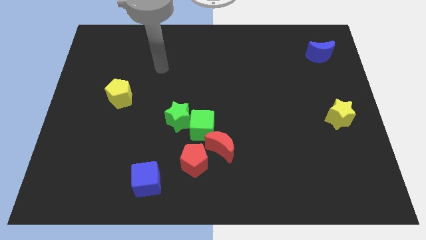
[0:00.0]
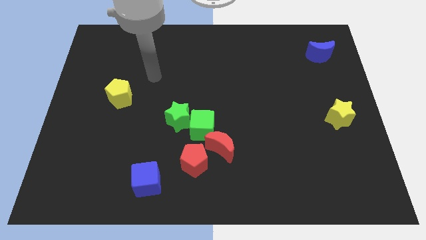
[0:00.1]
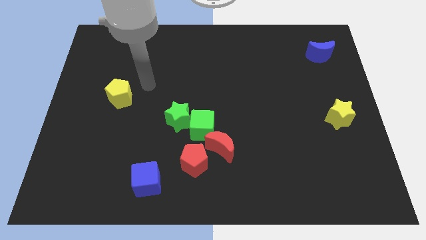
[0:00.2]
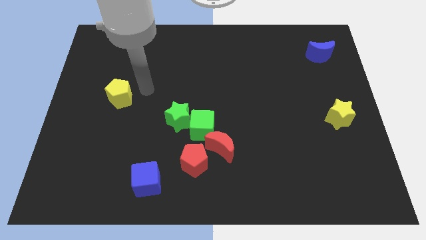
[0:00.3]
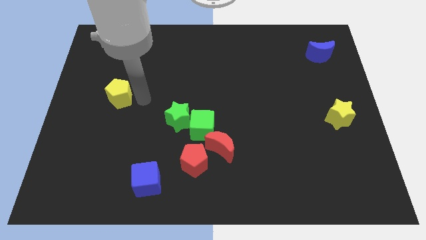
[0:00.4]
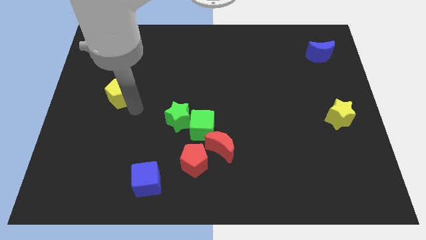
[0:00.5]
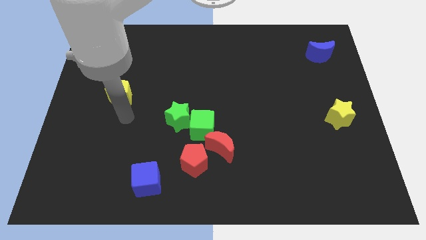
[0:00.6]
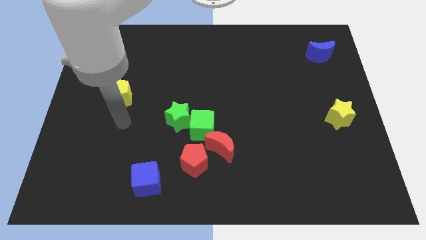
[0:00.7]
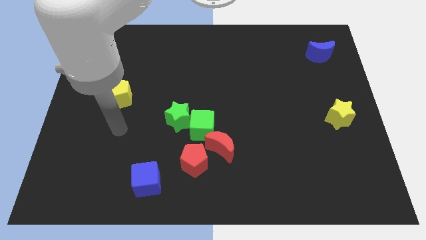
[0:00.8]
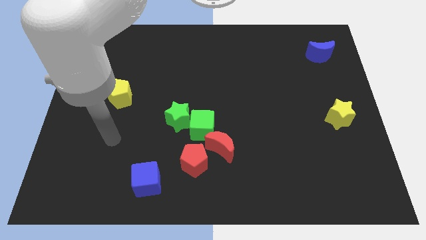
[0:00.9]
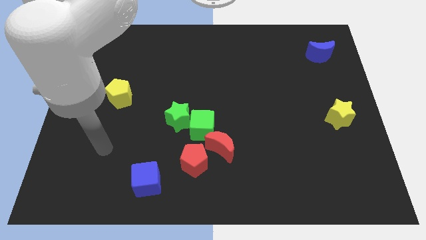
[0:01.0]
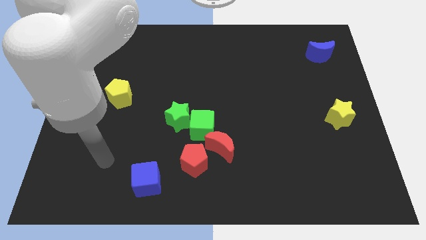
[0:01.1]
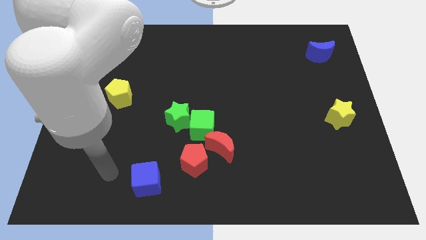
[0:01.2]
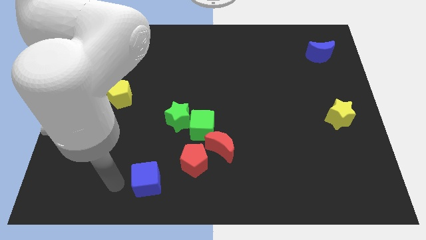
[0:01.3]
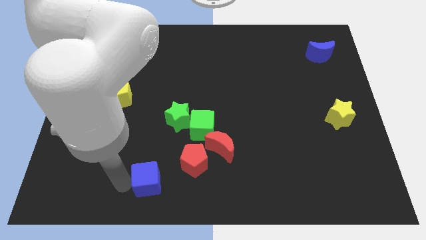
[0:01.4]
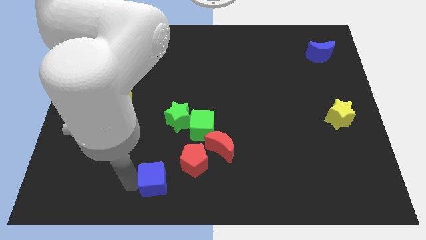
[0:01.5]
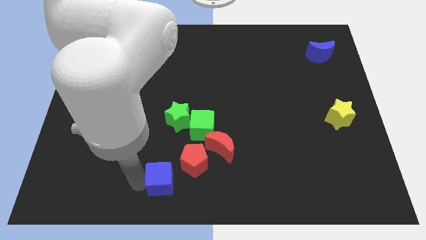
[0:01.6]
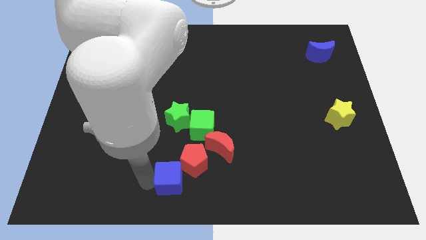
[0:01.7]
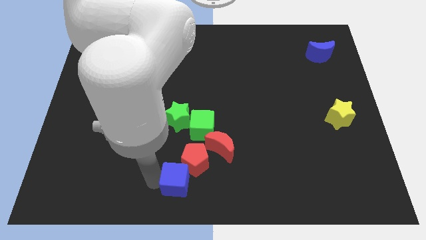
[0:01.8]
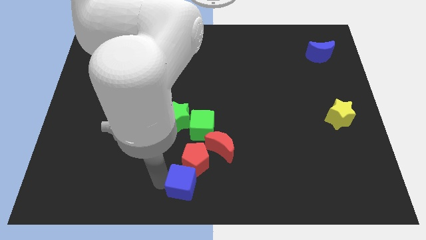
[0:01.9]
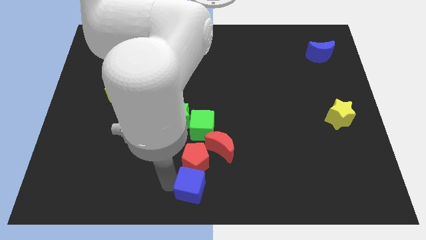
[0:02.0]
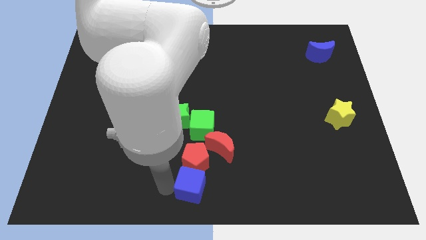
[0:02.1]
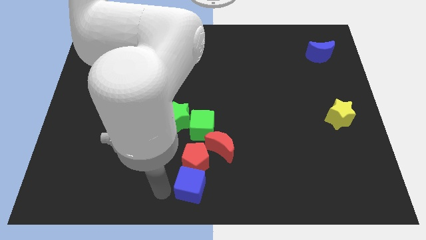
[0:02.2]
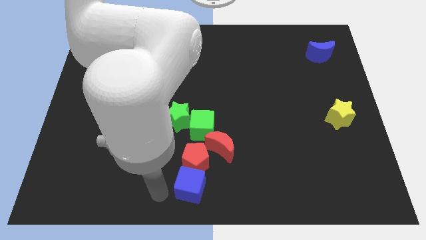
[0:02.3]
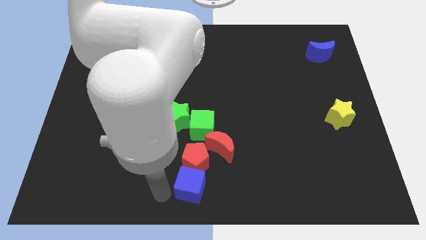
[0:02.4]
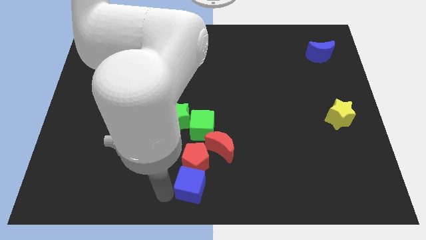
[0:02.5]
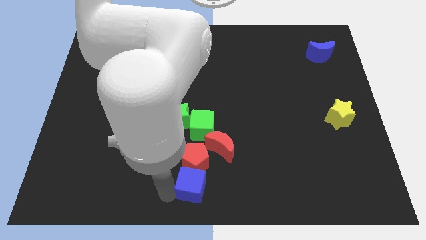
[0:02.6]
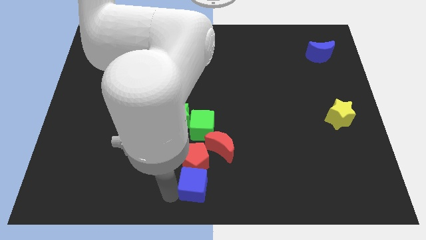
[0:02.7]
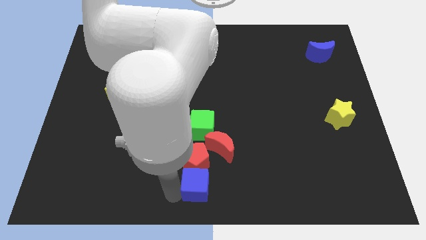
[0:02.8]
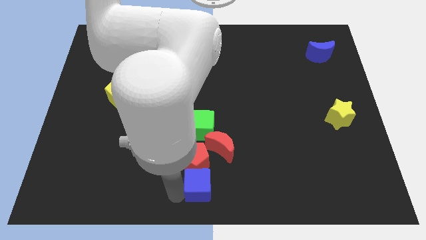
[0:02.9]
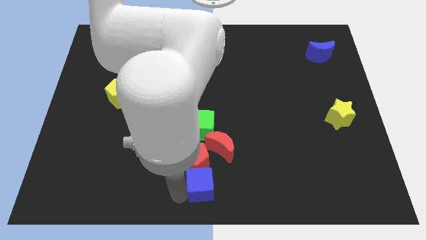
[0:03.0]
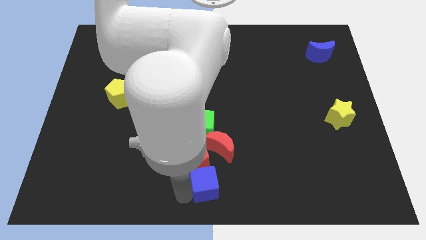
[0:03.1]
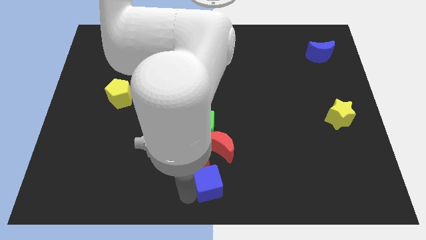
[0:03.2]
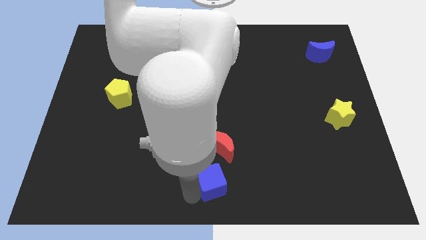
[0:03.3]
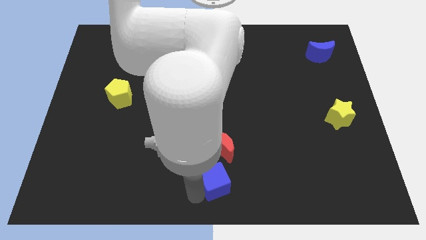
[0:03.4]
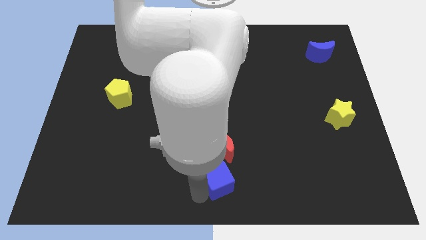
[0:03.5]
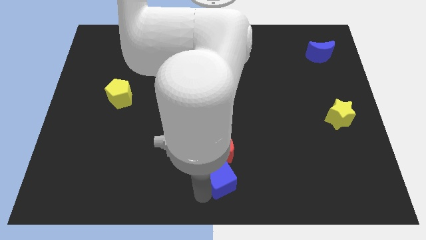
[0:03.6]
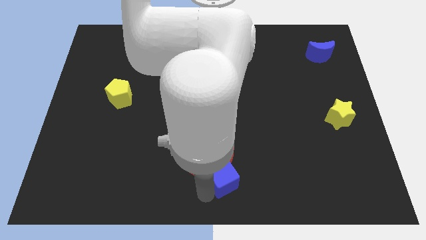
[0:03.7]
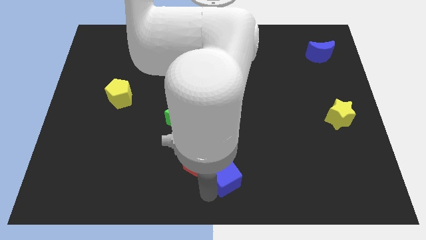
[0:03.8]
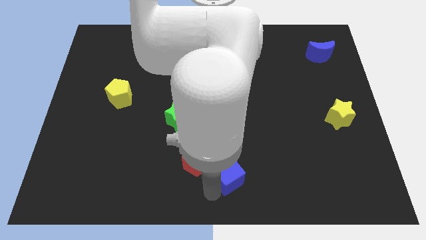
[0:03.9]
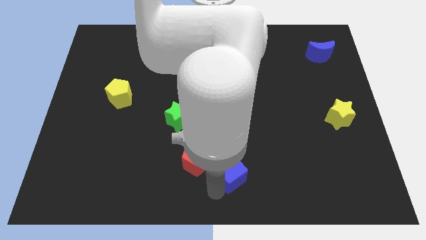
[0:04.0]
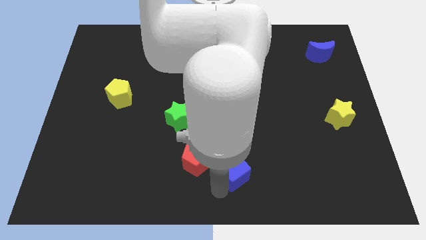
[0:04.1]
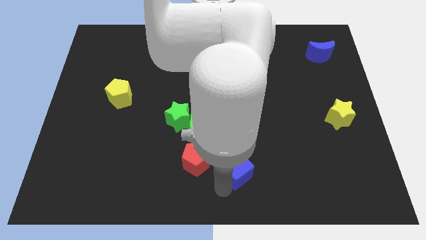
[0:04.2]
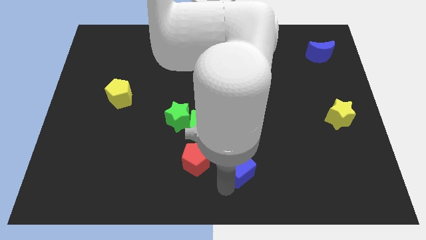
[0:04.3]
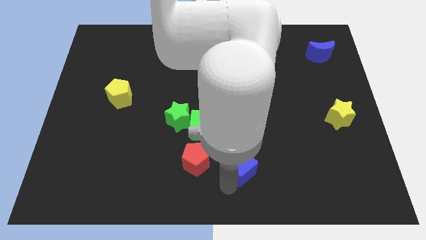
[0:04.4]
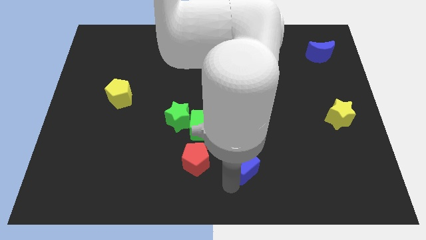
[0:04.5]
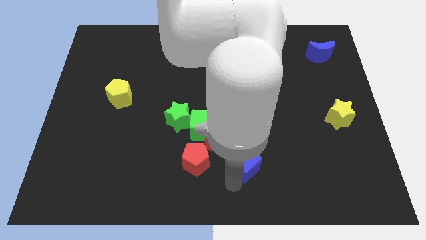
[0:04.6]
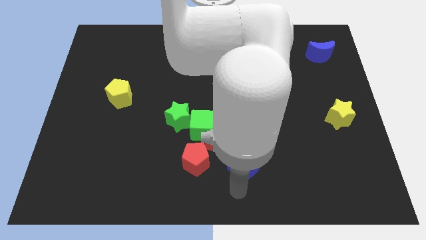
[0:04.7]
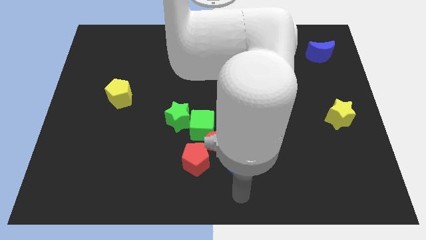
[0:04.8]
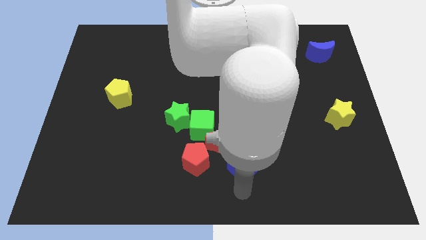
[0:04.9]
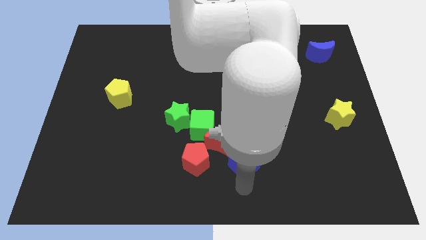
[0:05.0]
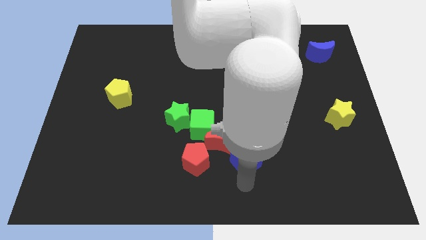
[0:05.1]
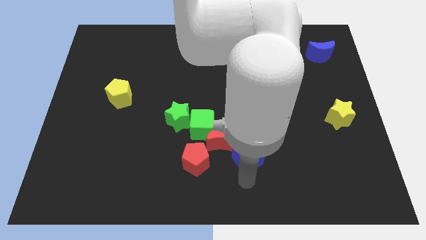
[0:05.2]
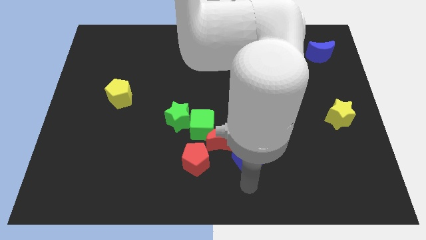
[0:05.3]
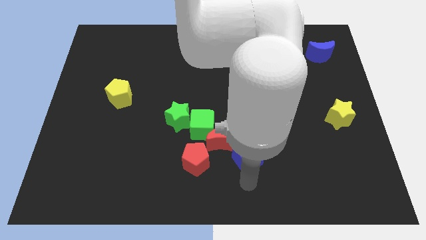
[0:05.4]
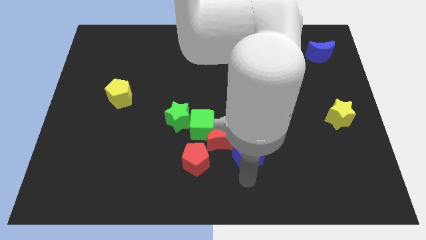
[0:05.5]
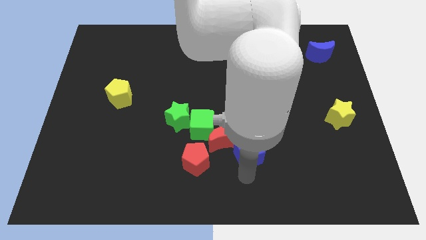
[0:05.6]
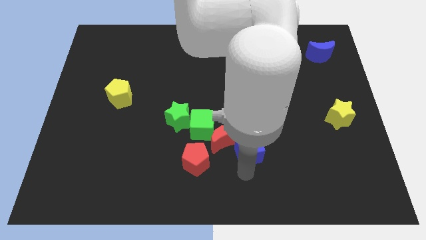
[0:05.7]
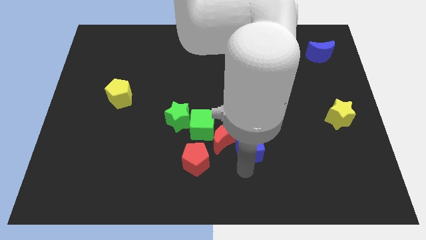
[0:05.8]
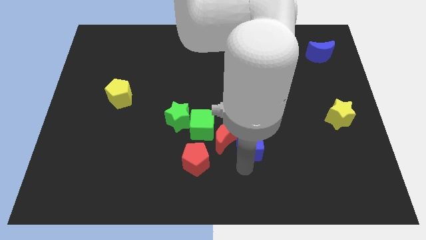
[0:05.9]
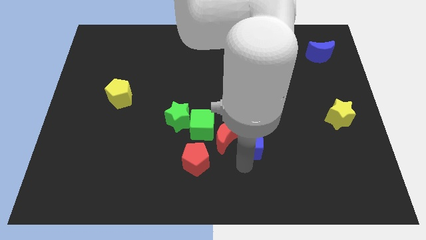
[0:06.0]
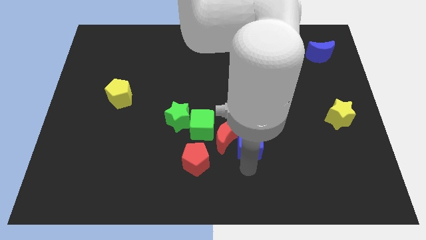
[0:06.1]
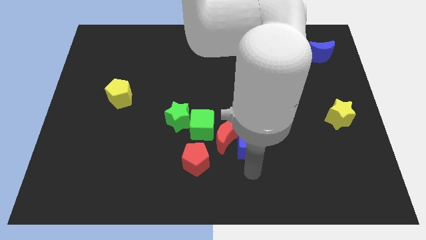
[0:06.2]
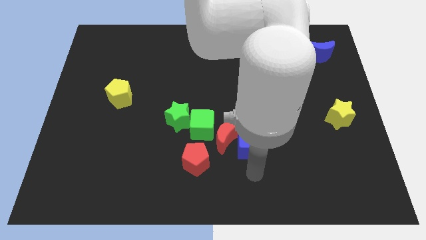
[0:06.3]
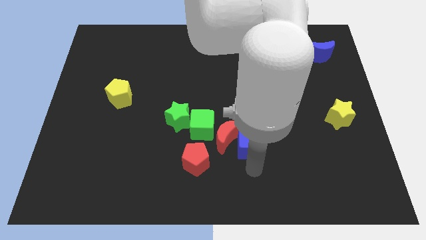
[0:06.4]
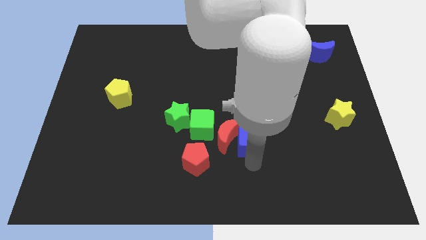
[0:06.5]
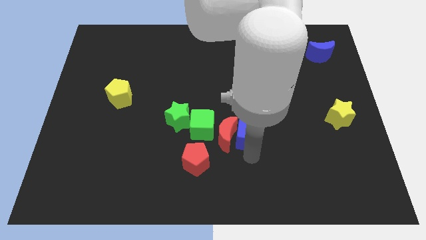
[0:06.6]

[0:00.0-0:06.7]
move the blue cube up and then to the right

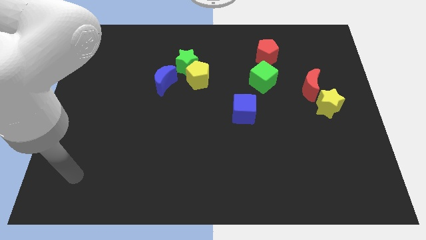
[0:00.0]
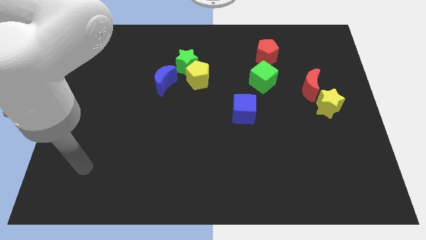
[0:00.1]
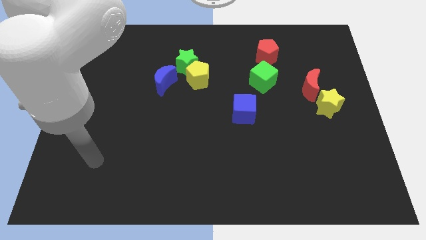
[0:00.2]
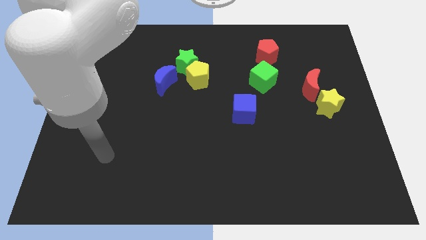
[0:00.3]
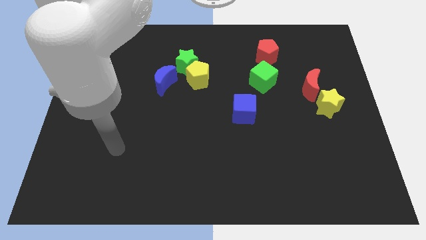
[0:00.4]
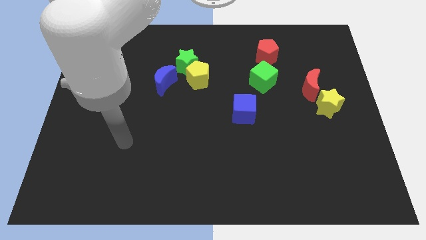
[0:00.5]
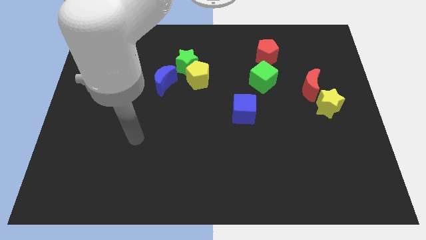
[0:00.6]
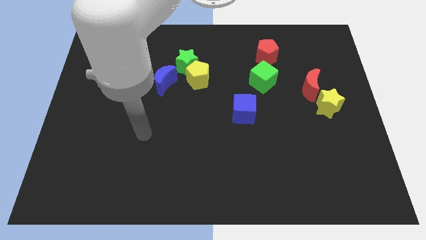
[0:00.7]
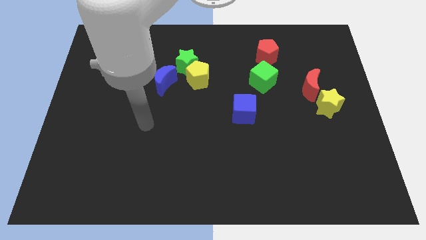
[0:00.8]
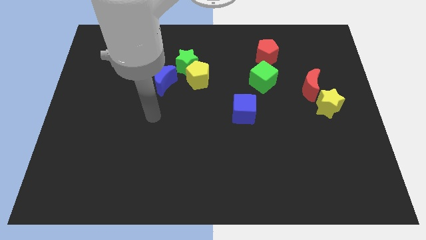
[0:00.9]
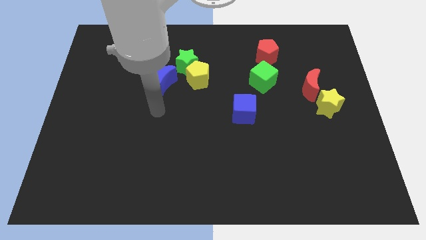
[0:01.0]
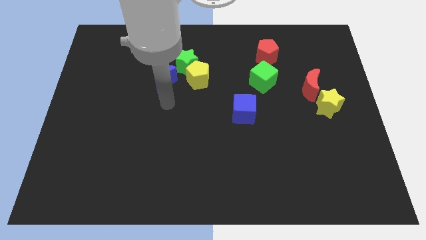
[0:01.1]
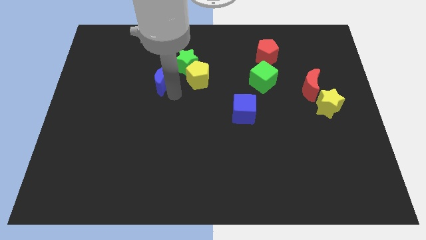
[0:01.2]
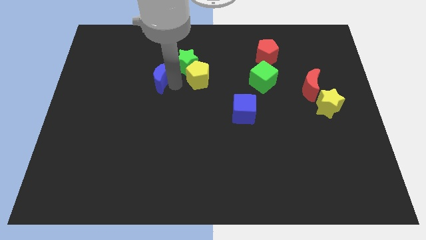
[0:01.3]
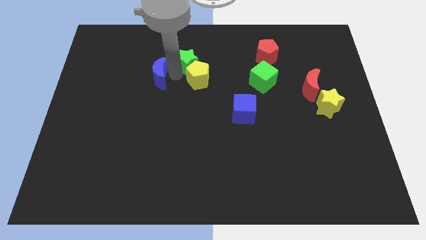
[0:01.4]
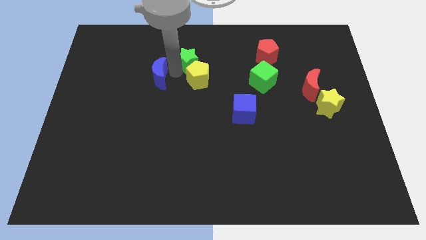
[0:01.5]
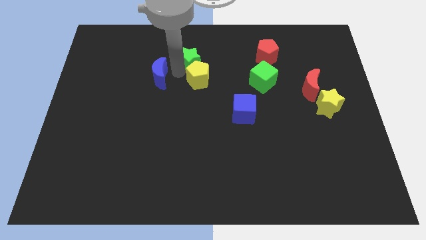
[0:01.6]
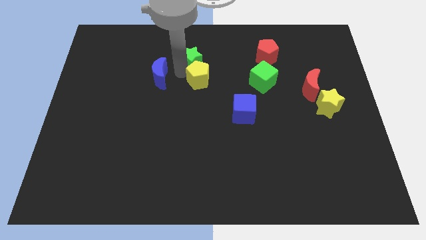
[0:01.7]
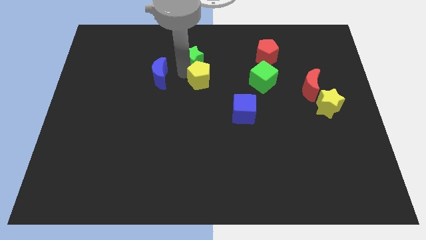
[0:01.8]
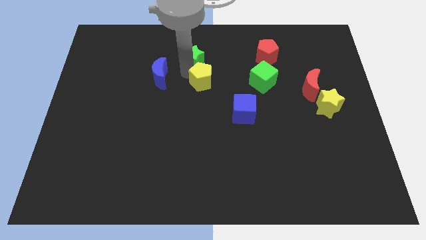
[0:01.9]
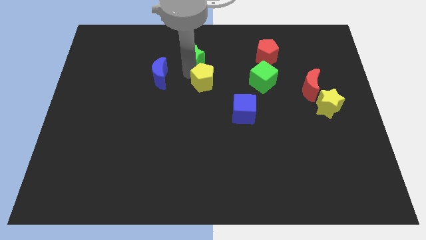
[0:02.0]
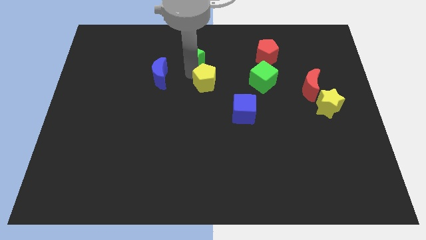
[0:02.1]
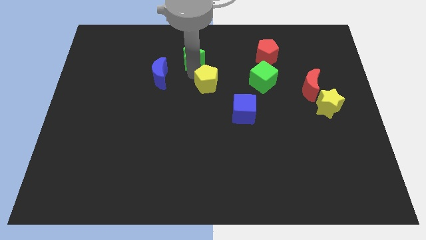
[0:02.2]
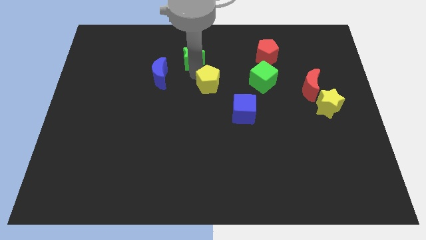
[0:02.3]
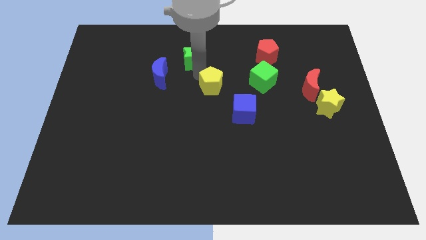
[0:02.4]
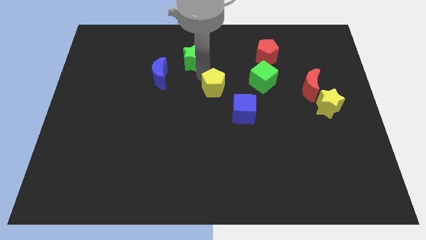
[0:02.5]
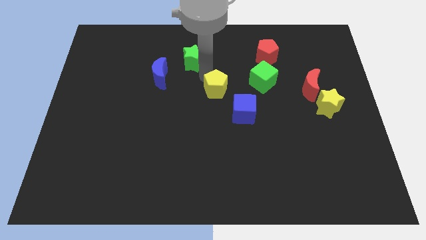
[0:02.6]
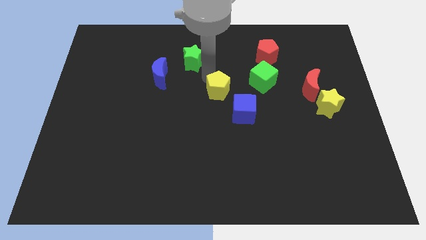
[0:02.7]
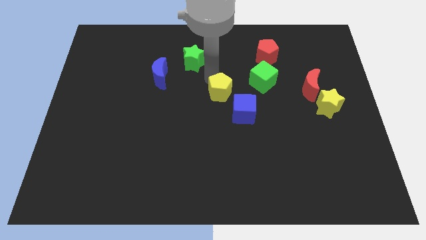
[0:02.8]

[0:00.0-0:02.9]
slightly push the yellow pentagon downwards and then right
